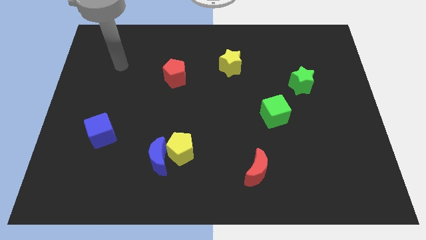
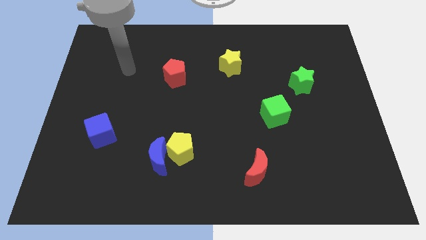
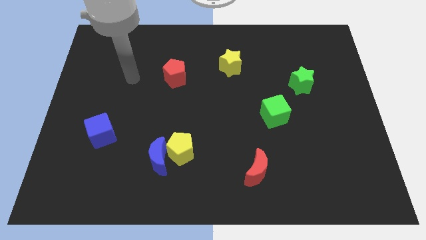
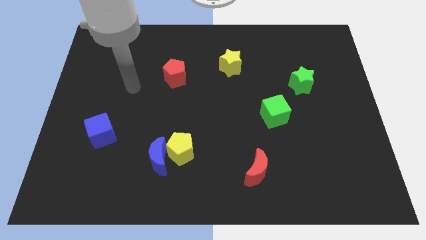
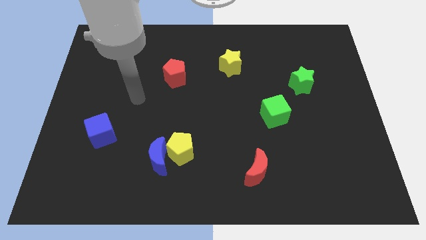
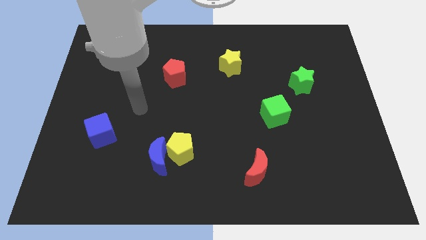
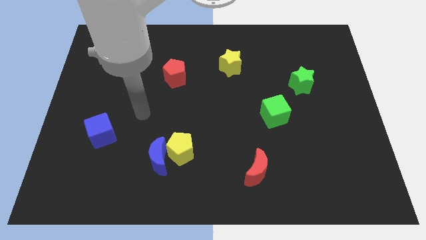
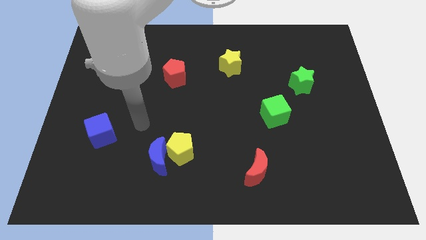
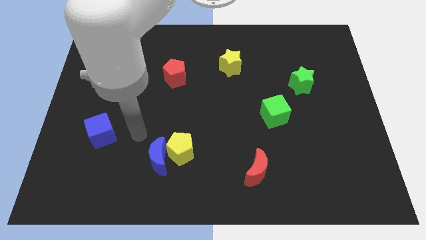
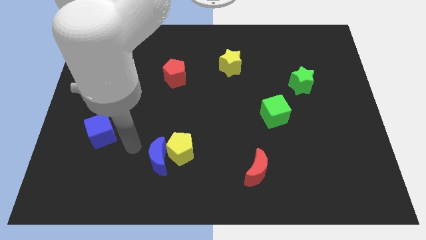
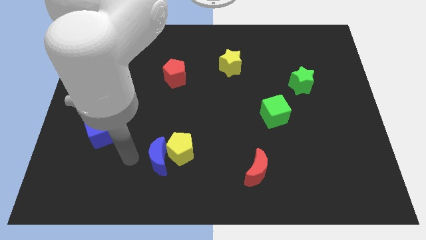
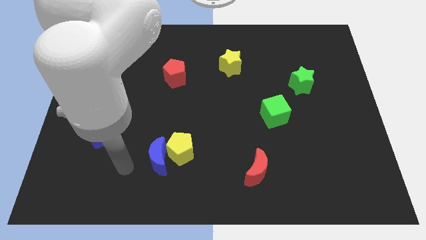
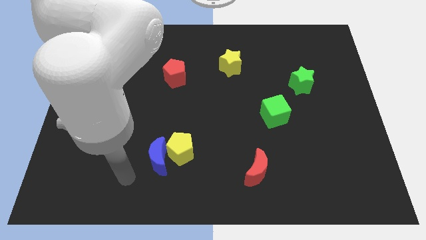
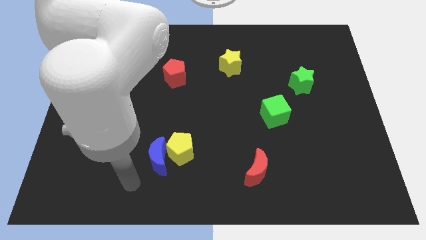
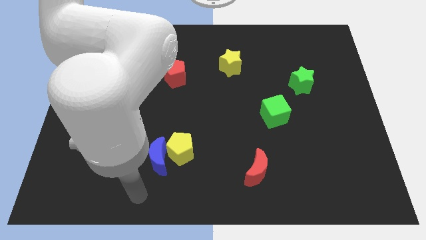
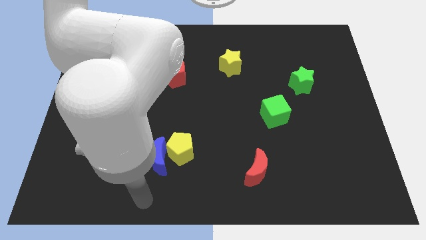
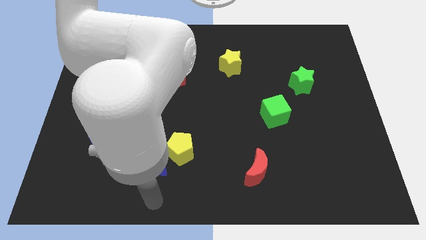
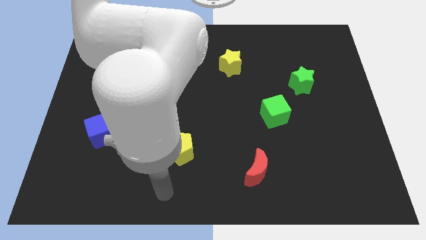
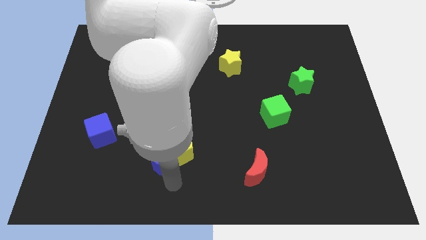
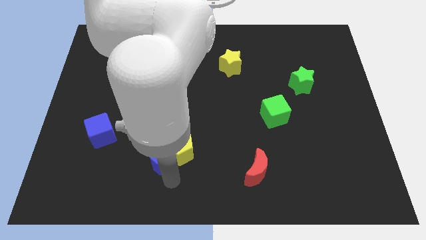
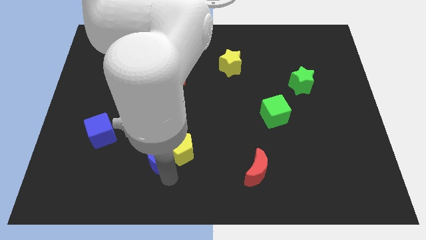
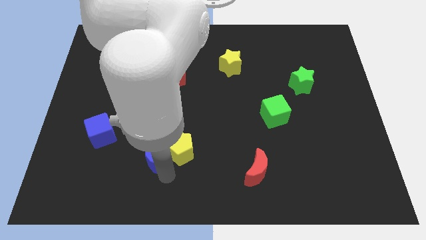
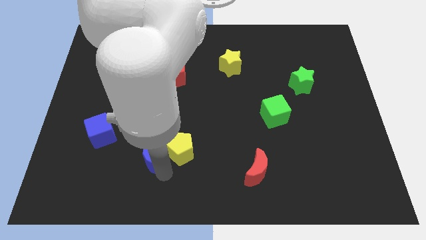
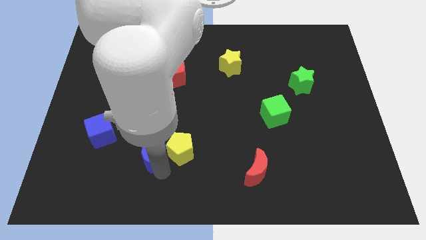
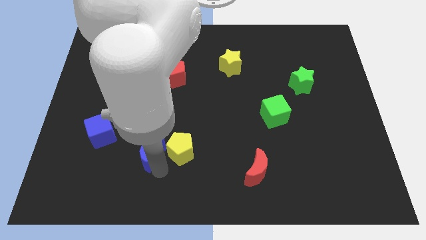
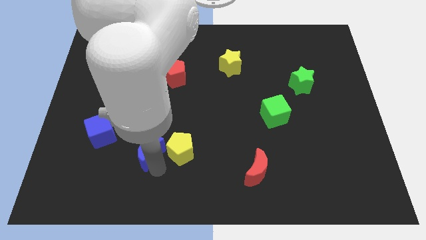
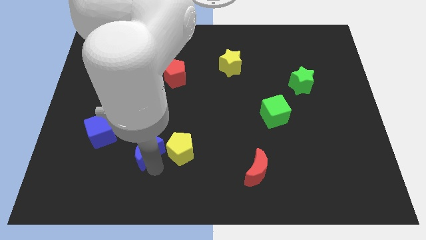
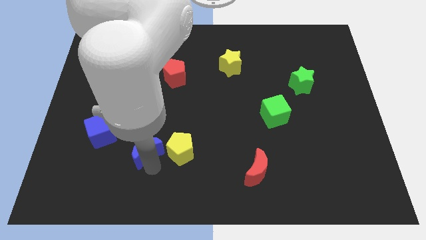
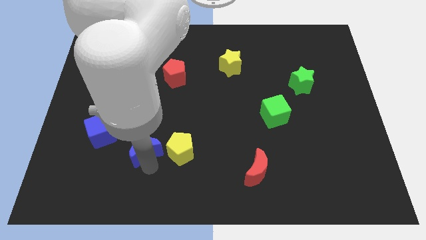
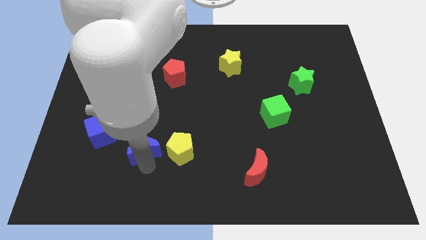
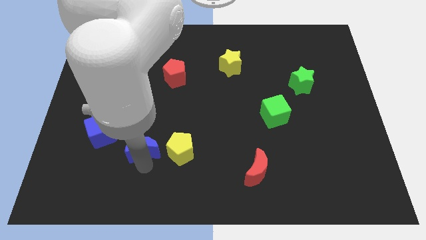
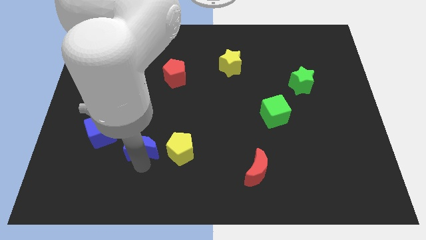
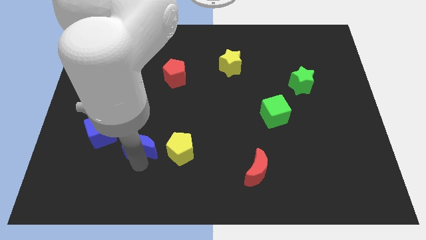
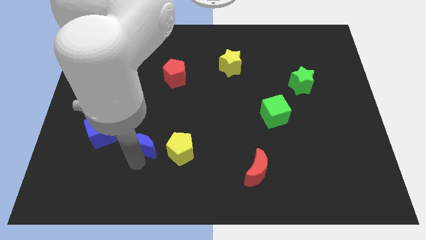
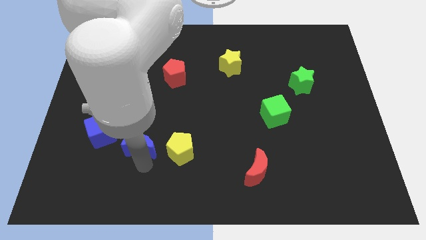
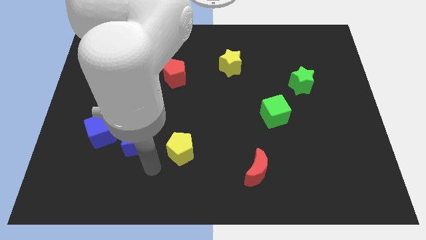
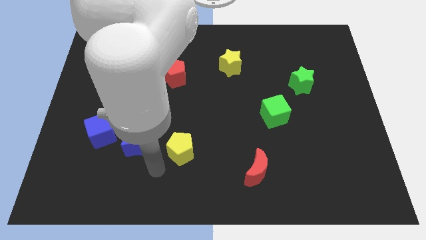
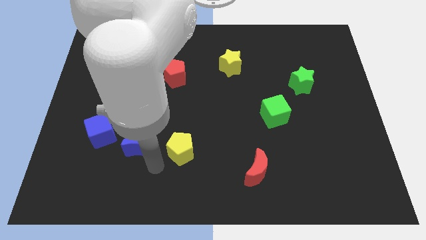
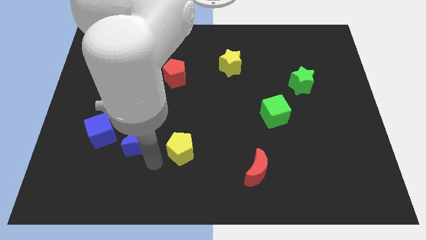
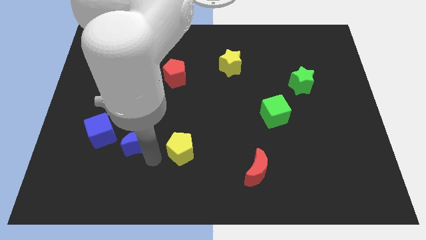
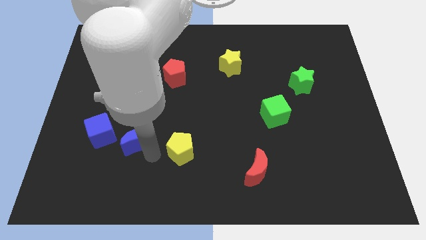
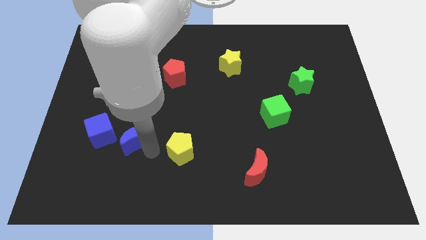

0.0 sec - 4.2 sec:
slide the blue moon up and to the left diagonally a little bit

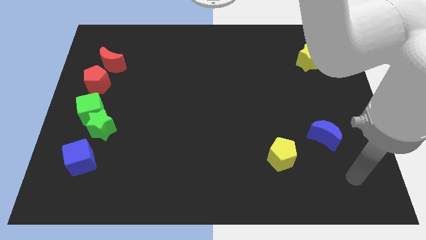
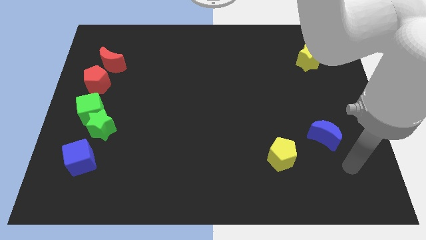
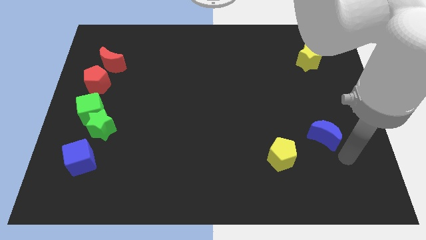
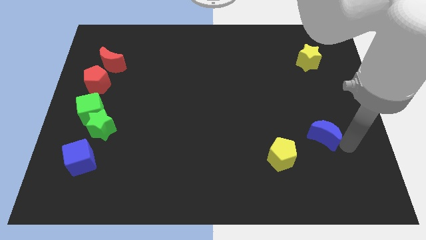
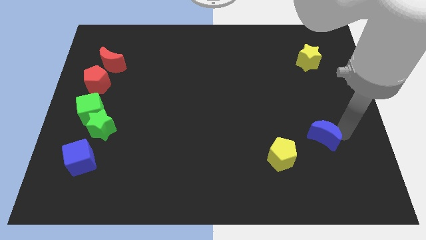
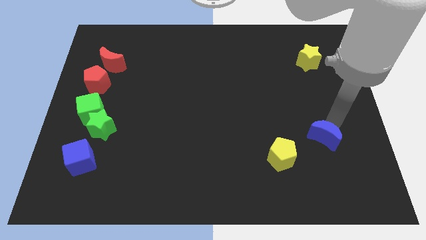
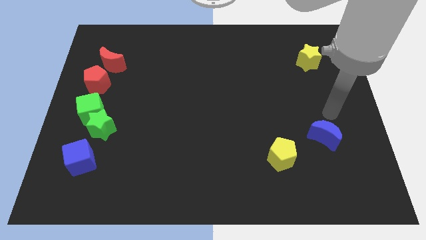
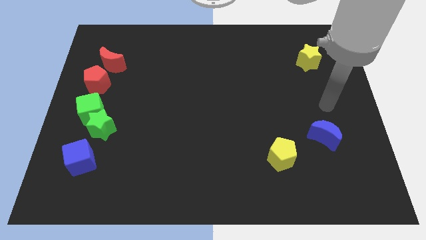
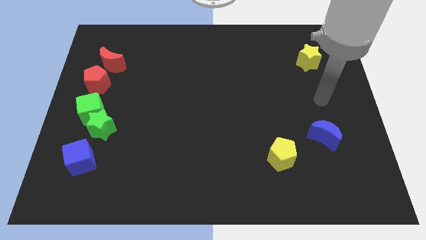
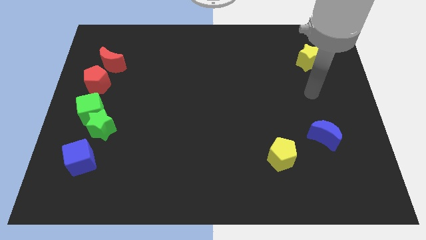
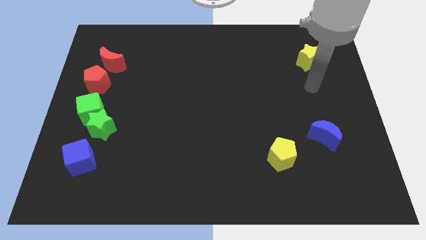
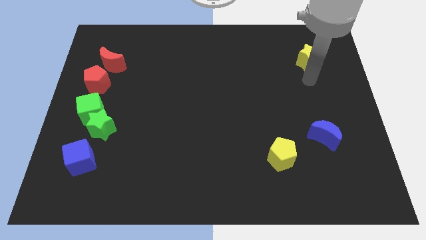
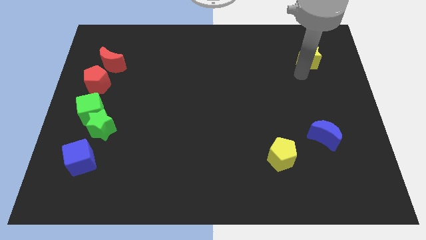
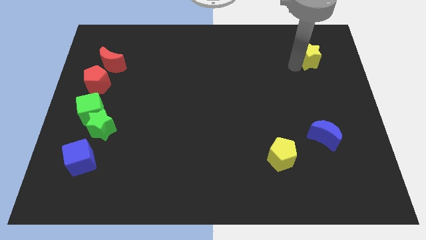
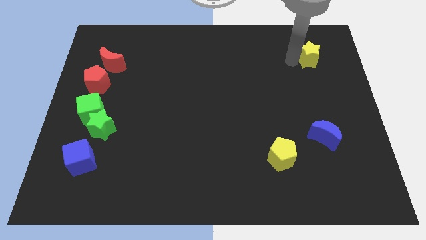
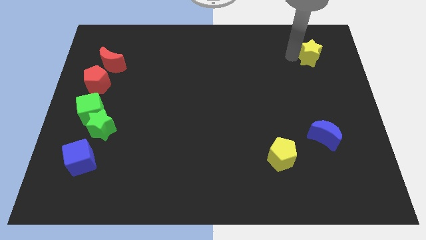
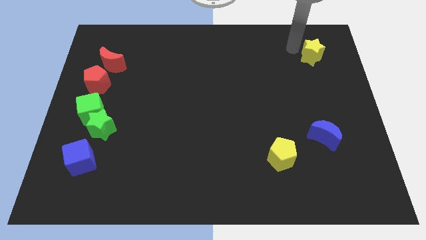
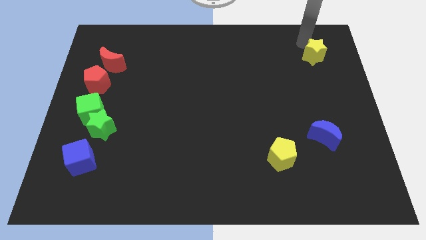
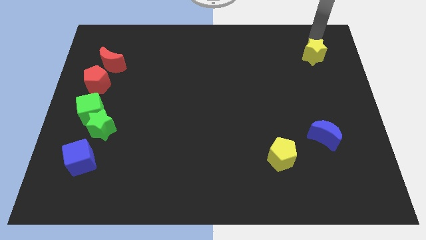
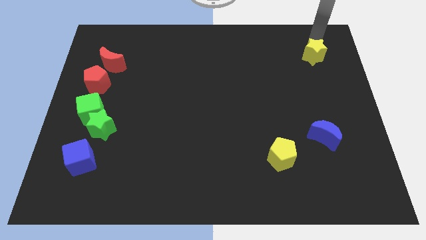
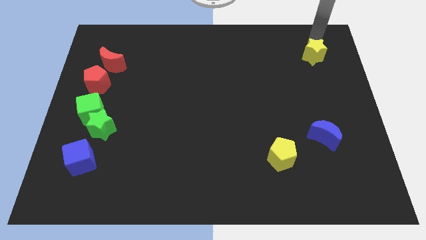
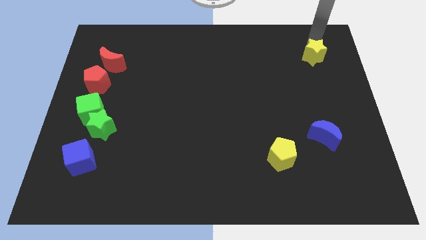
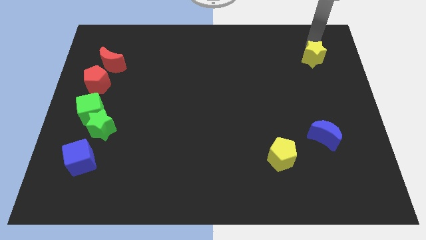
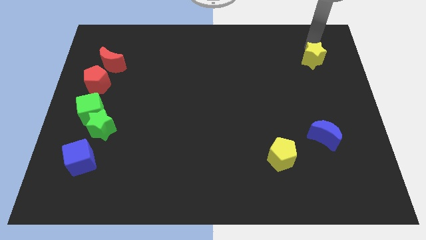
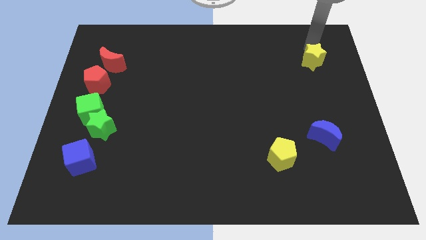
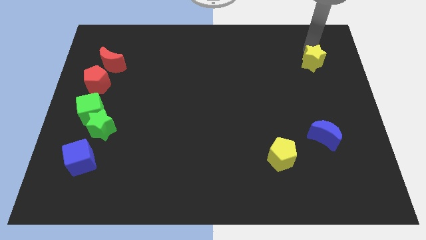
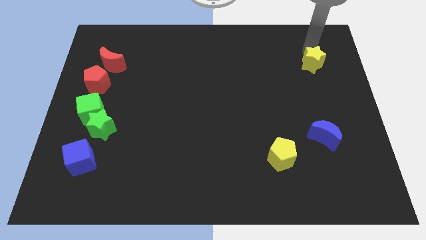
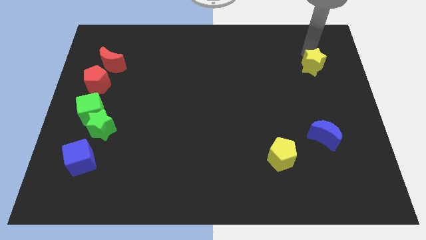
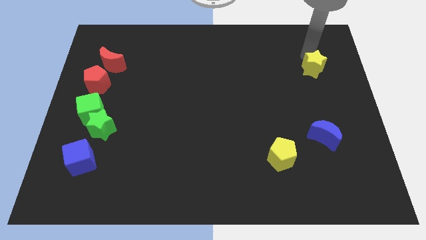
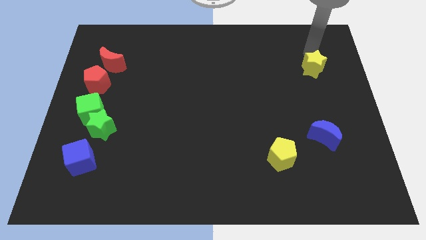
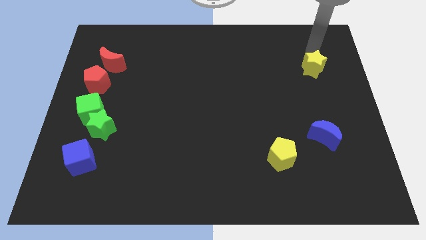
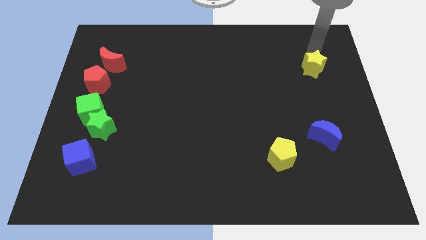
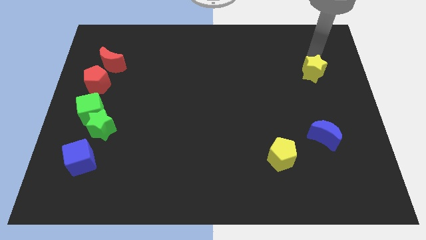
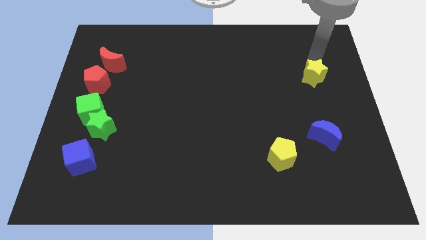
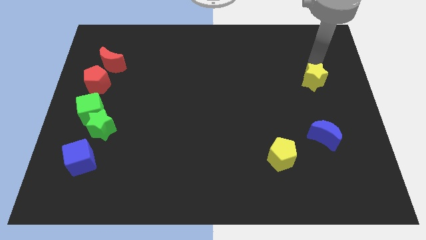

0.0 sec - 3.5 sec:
slightly move the yellow star downwards

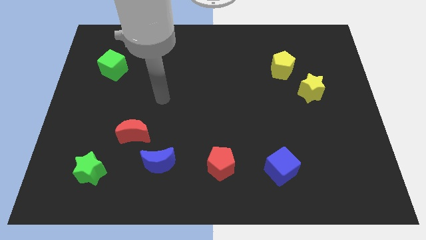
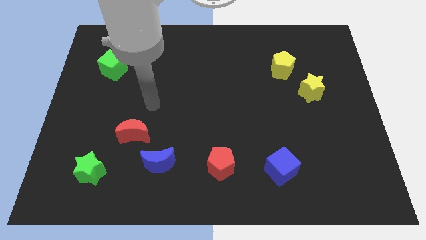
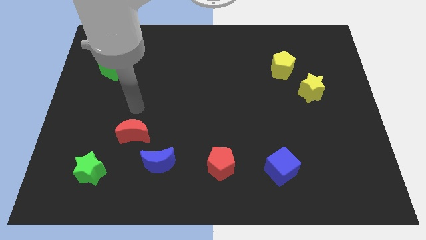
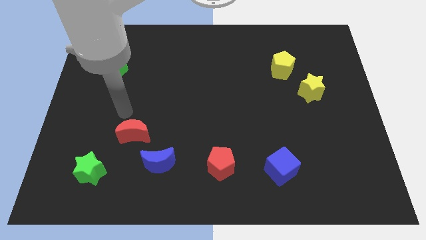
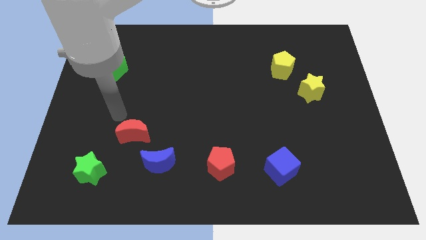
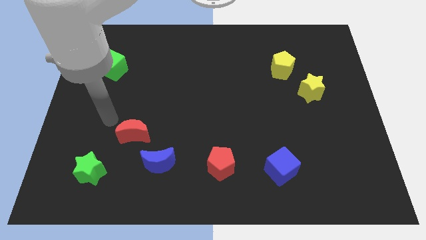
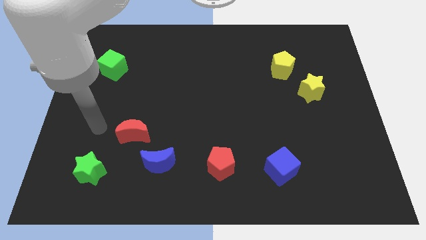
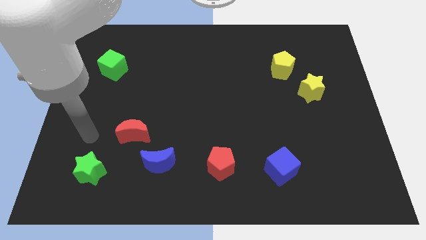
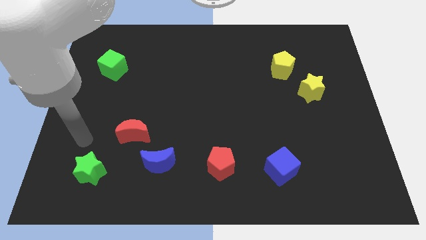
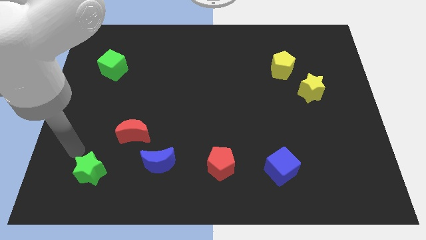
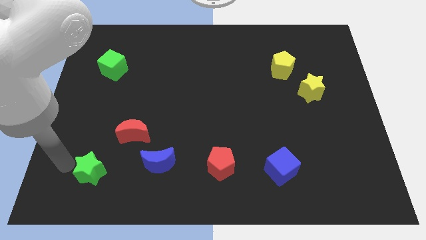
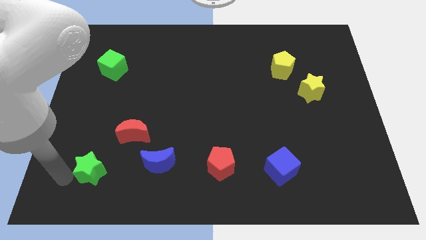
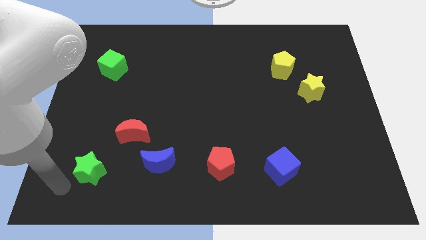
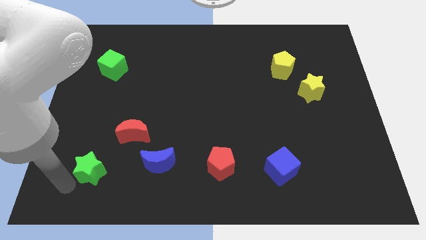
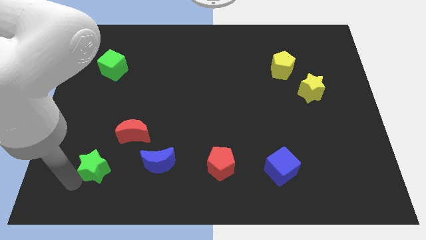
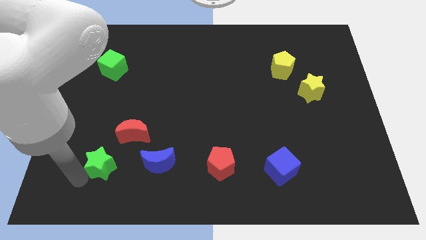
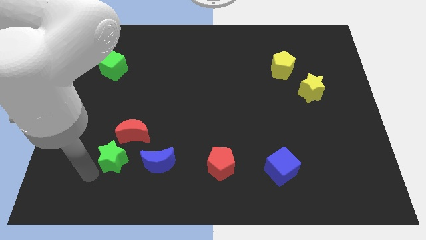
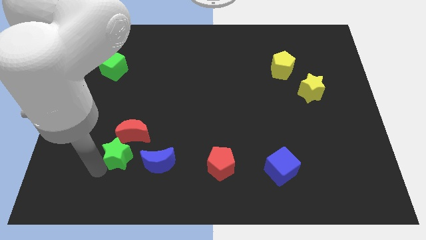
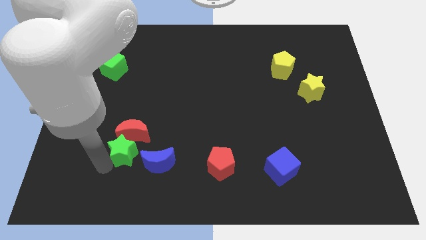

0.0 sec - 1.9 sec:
slightly slide the green star upwards and right
